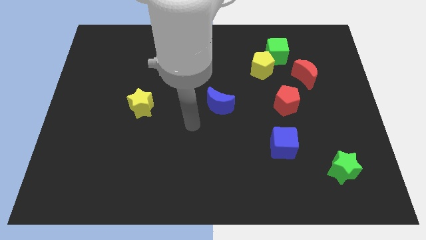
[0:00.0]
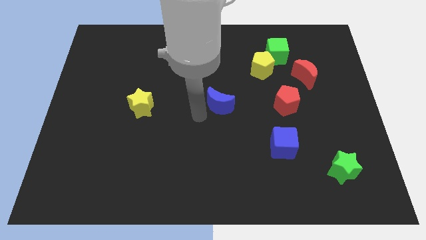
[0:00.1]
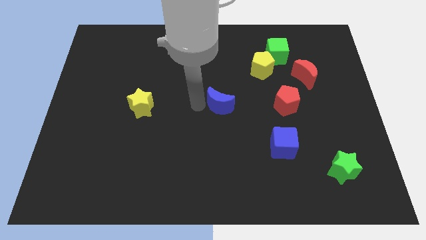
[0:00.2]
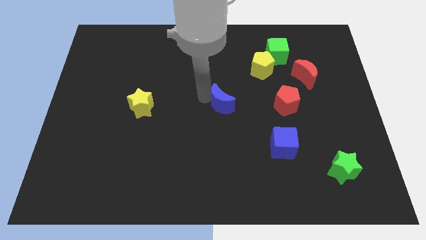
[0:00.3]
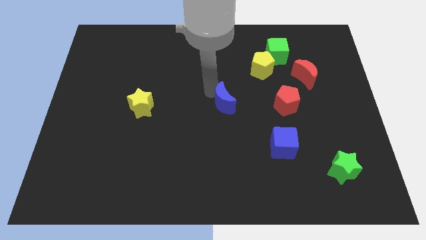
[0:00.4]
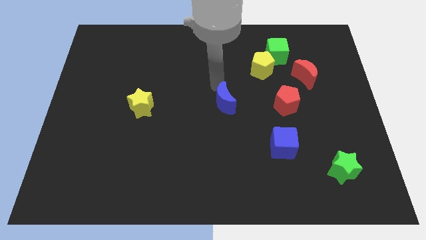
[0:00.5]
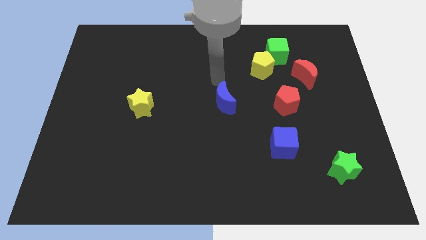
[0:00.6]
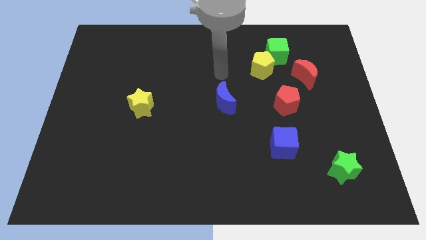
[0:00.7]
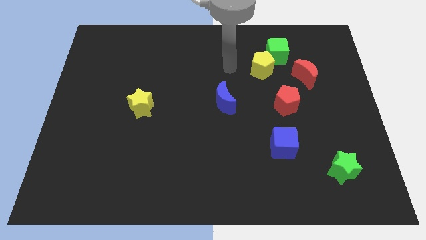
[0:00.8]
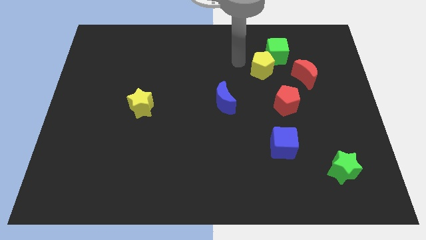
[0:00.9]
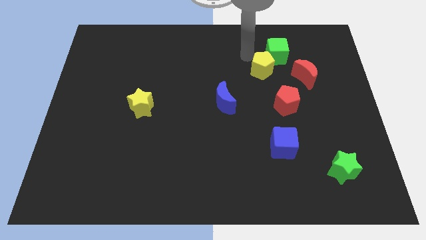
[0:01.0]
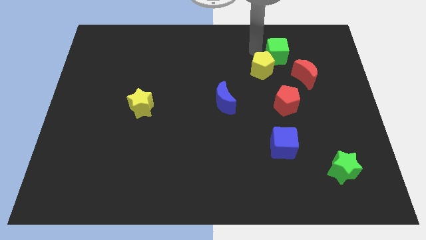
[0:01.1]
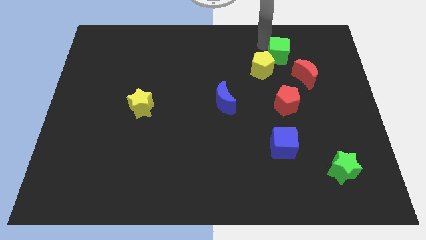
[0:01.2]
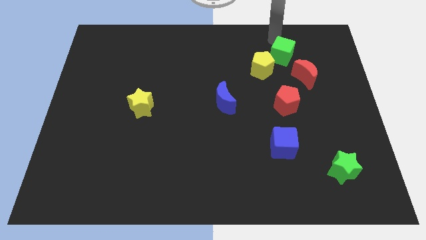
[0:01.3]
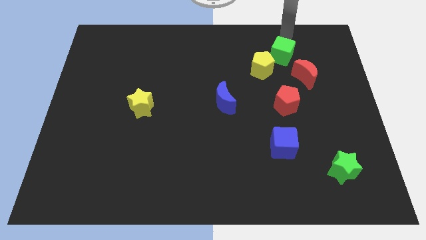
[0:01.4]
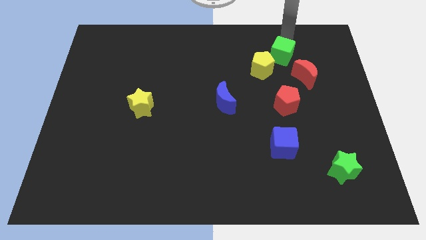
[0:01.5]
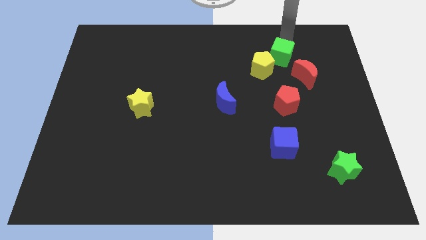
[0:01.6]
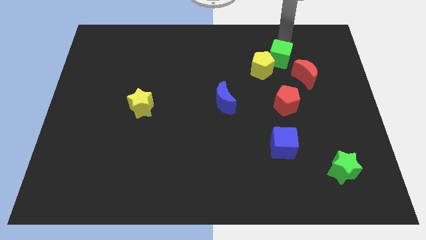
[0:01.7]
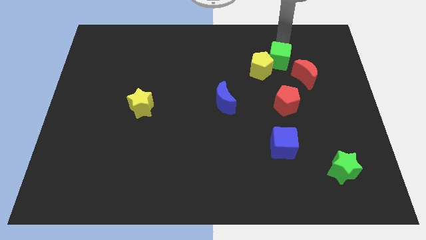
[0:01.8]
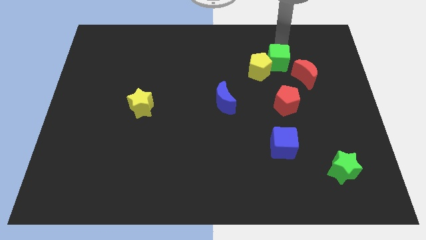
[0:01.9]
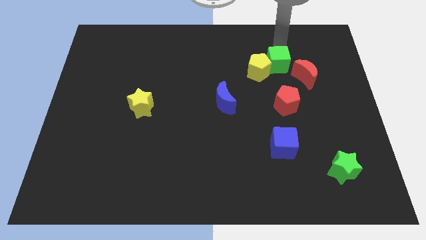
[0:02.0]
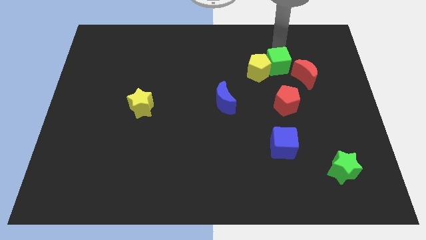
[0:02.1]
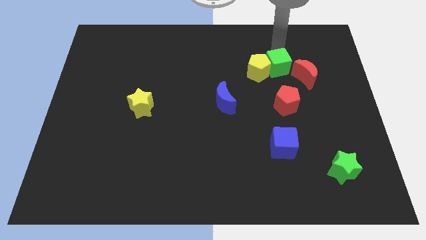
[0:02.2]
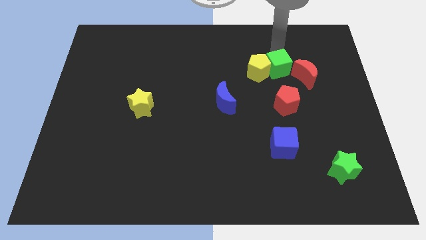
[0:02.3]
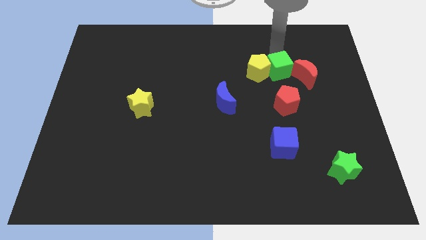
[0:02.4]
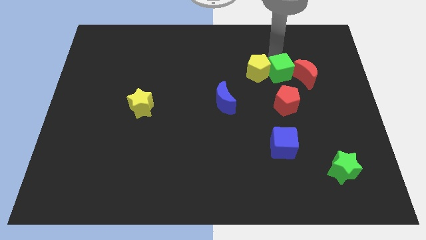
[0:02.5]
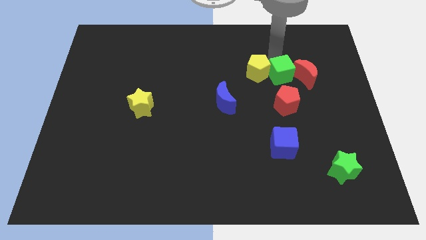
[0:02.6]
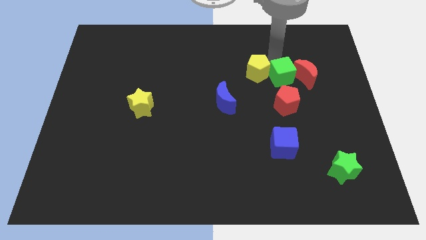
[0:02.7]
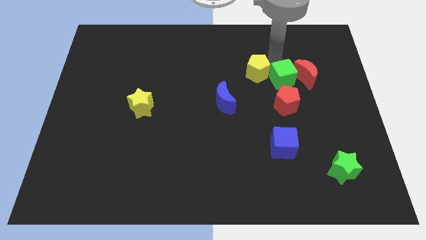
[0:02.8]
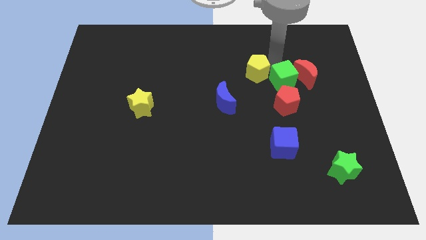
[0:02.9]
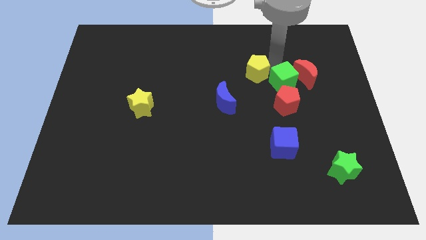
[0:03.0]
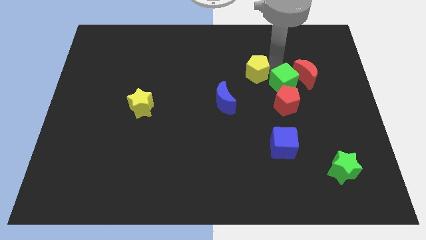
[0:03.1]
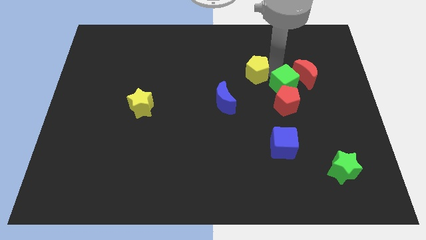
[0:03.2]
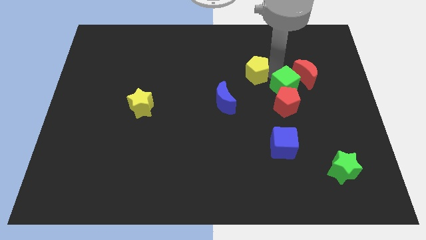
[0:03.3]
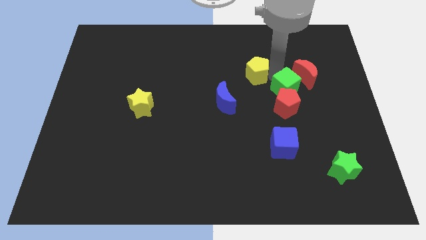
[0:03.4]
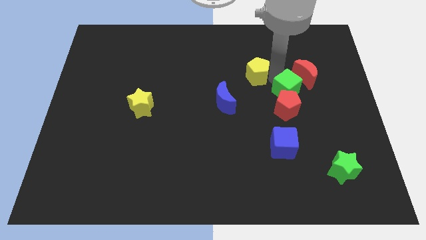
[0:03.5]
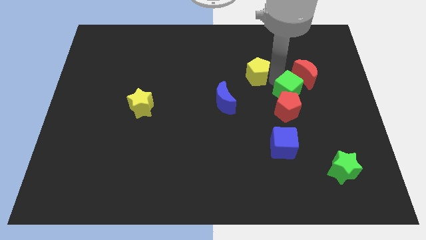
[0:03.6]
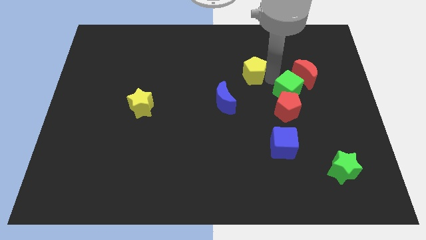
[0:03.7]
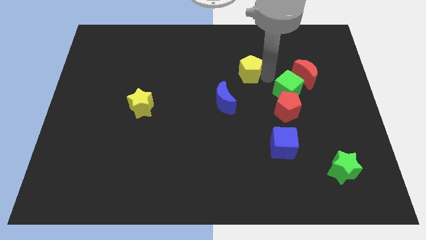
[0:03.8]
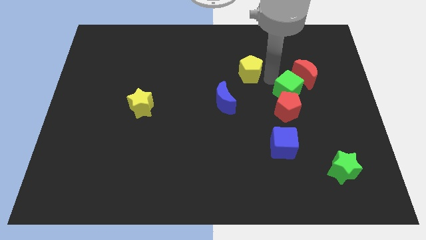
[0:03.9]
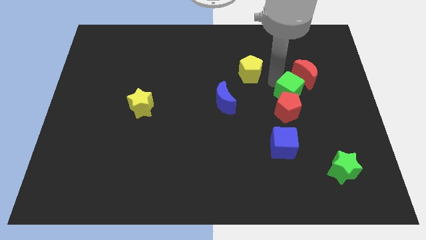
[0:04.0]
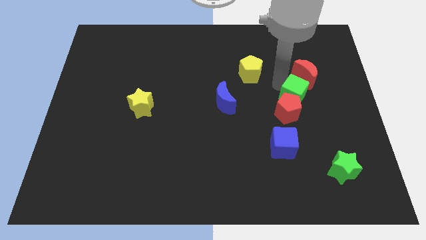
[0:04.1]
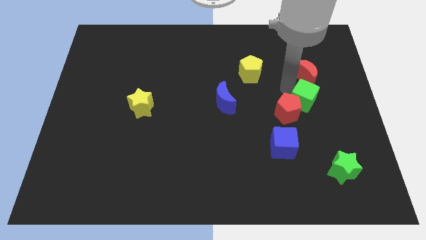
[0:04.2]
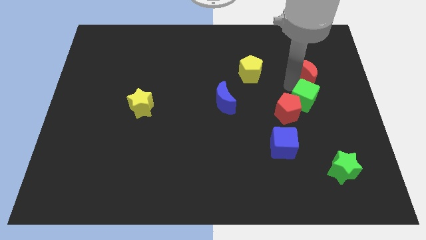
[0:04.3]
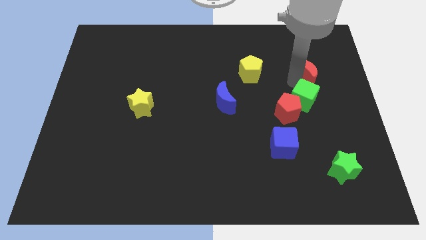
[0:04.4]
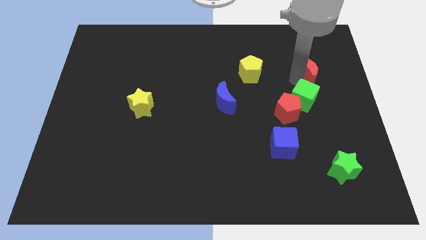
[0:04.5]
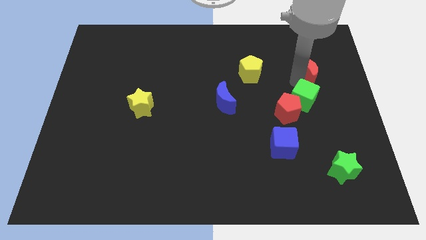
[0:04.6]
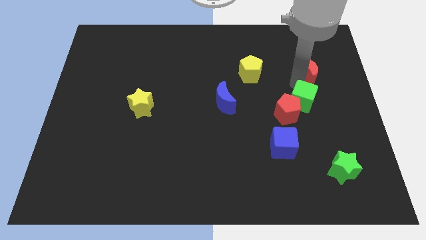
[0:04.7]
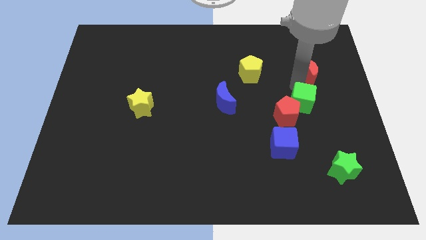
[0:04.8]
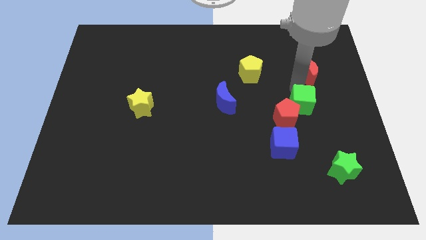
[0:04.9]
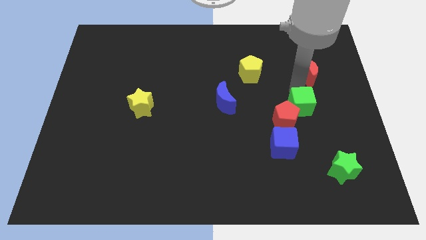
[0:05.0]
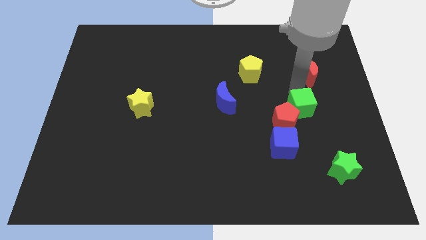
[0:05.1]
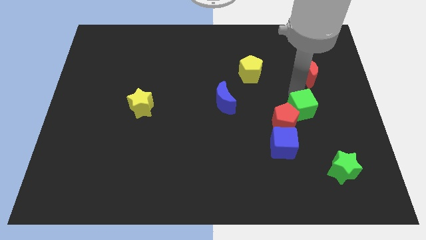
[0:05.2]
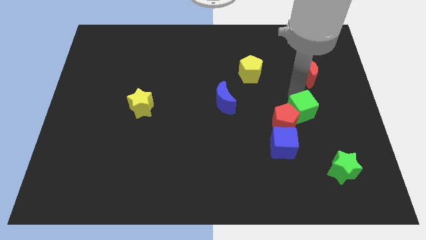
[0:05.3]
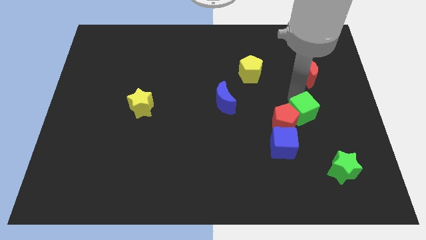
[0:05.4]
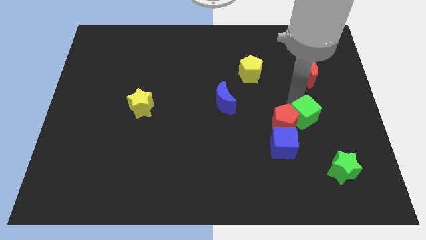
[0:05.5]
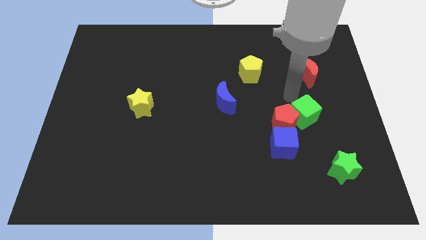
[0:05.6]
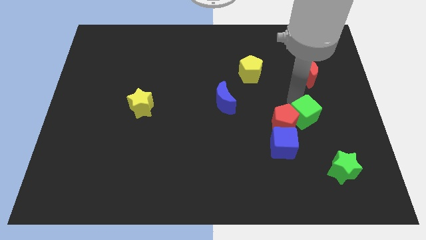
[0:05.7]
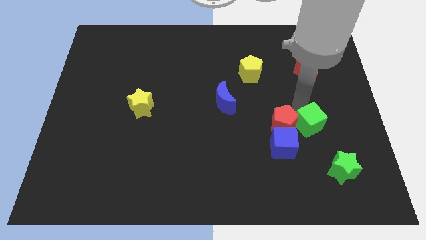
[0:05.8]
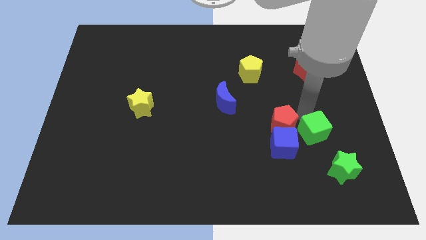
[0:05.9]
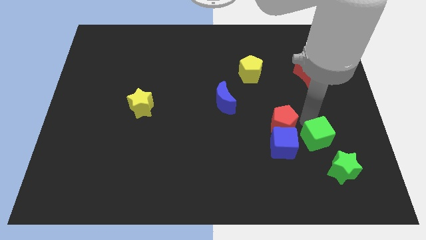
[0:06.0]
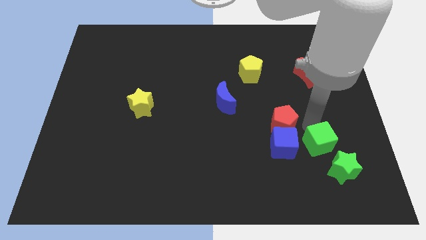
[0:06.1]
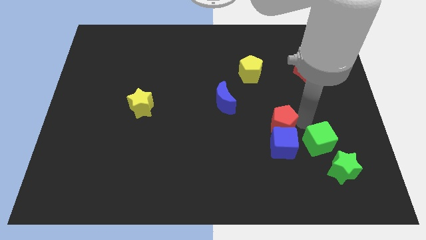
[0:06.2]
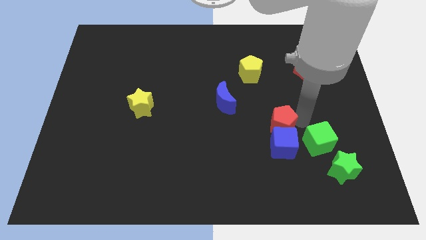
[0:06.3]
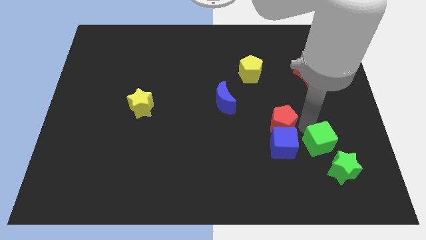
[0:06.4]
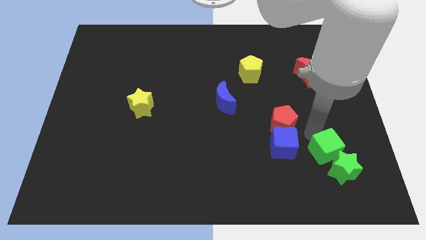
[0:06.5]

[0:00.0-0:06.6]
put the green cube towards the green star
